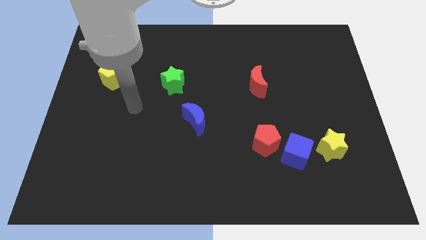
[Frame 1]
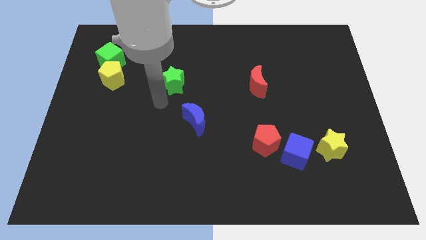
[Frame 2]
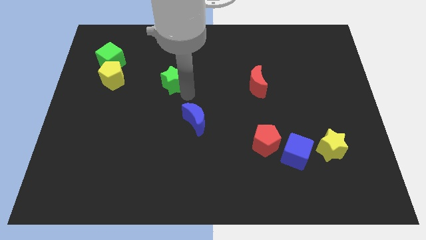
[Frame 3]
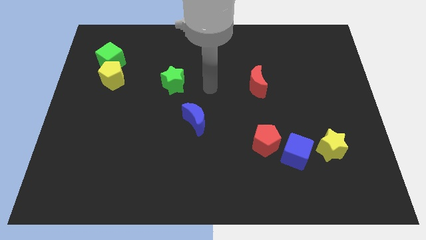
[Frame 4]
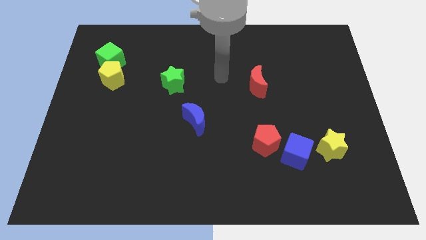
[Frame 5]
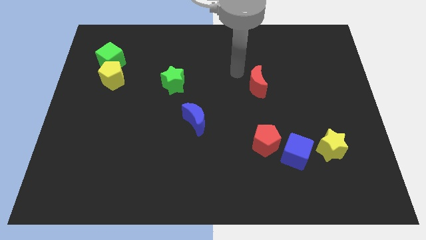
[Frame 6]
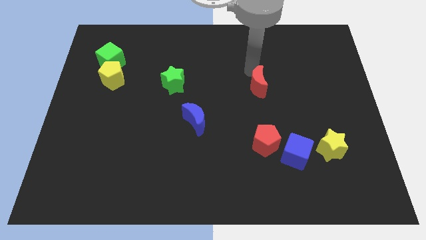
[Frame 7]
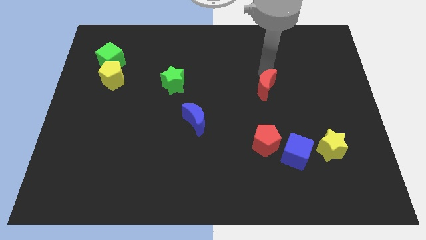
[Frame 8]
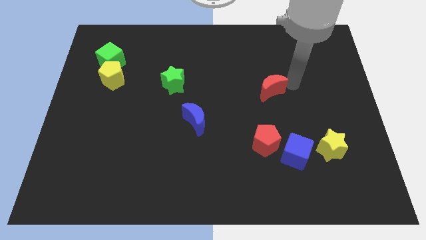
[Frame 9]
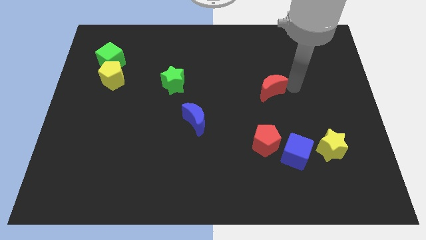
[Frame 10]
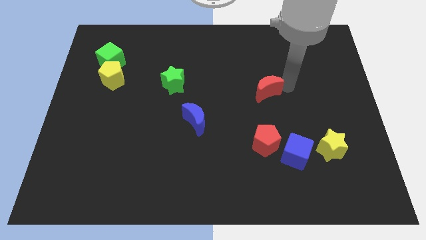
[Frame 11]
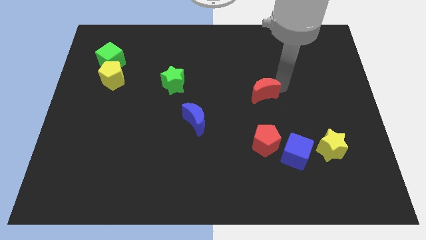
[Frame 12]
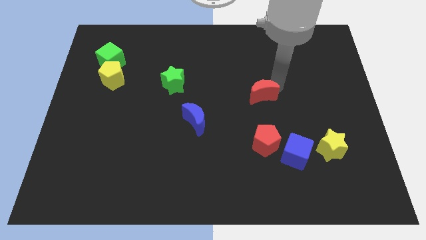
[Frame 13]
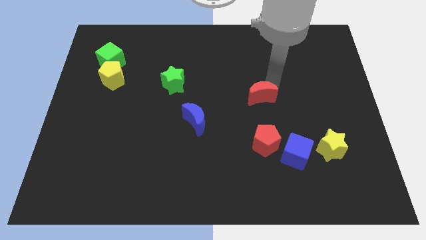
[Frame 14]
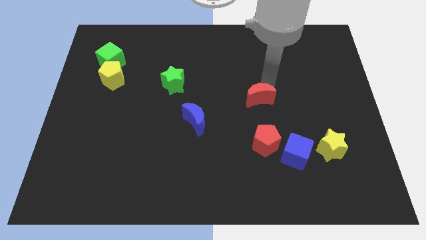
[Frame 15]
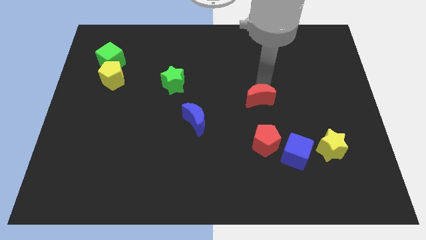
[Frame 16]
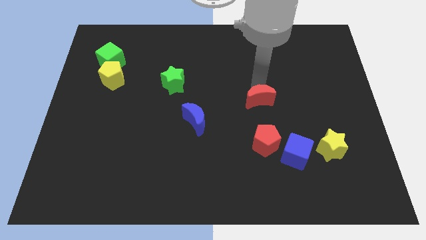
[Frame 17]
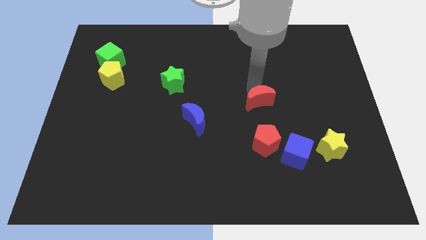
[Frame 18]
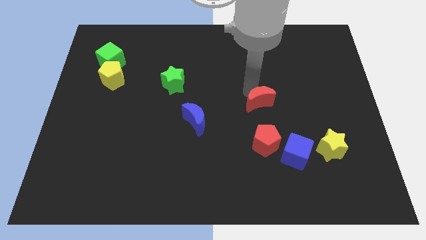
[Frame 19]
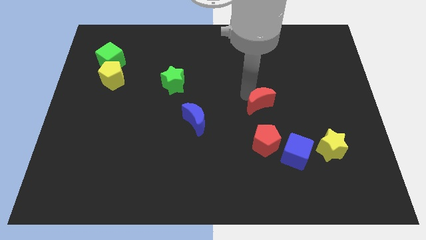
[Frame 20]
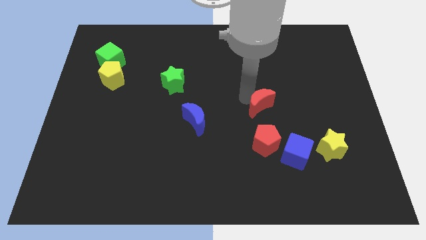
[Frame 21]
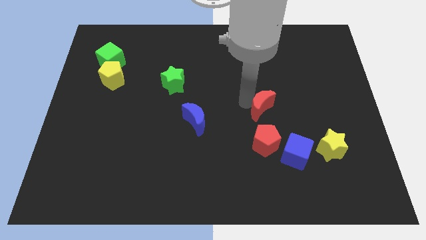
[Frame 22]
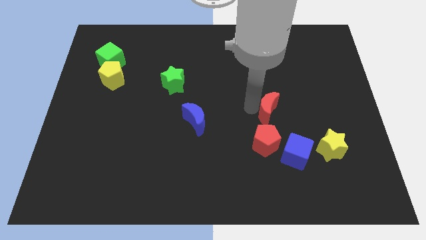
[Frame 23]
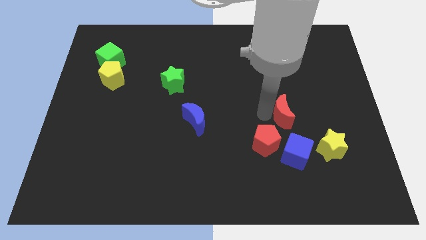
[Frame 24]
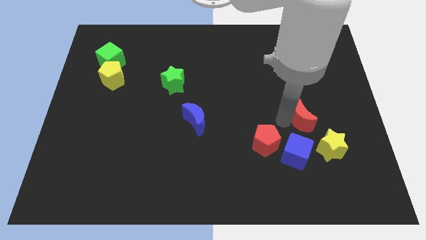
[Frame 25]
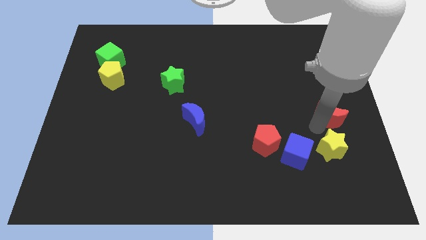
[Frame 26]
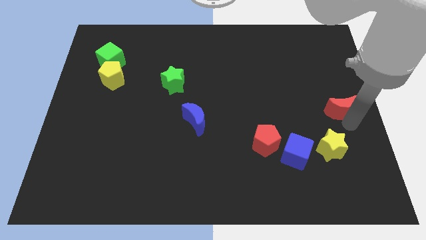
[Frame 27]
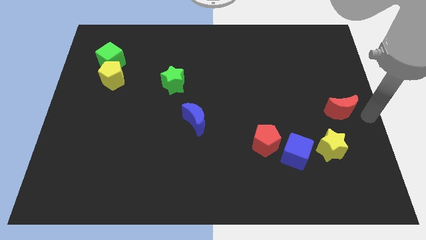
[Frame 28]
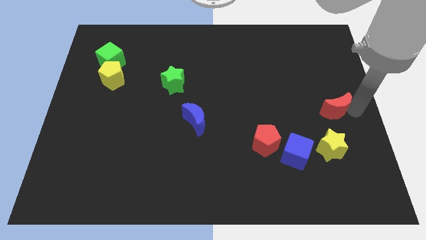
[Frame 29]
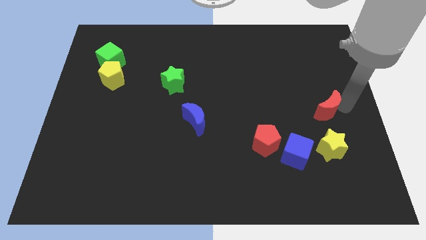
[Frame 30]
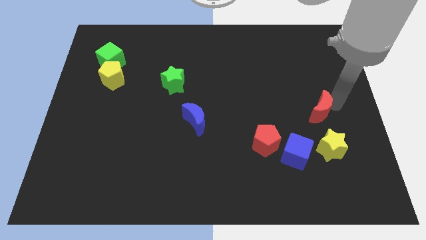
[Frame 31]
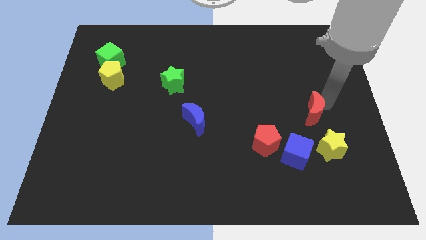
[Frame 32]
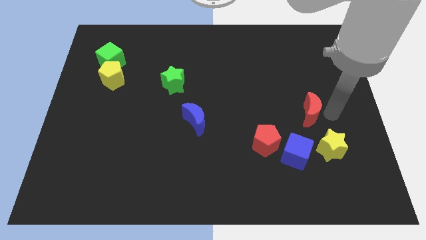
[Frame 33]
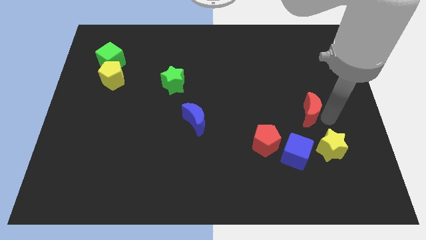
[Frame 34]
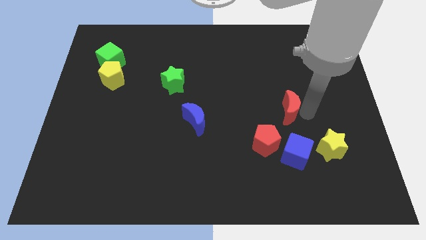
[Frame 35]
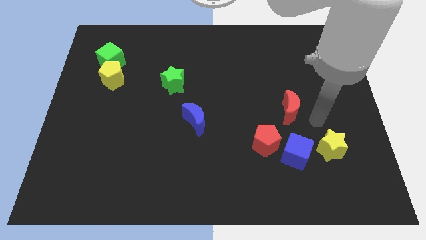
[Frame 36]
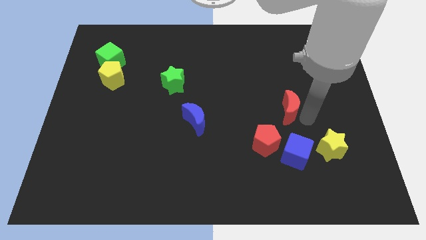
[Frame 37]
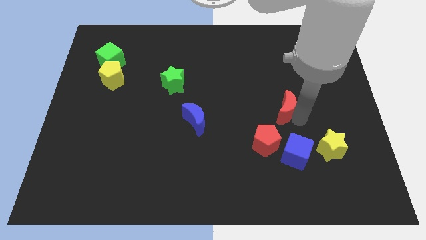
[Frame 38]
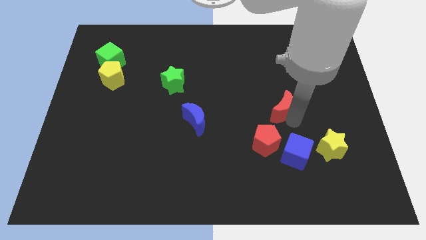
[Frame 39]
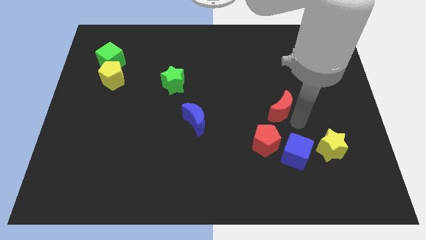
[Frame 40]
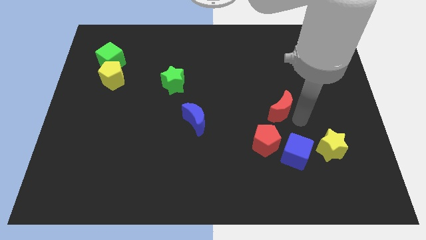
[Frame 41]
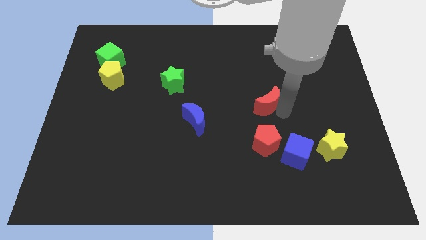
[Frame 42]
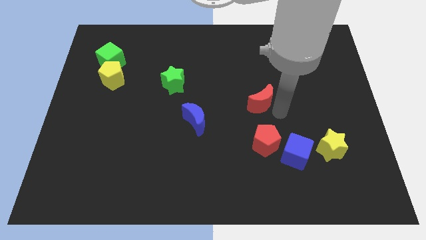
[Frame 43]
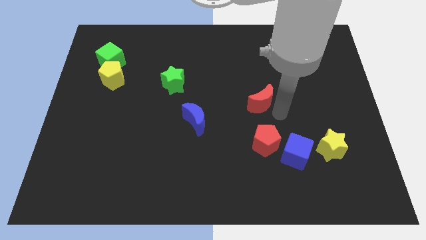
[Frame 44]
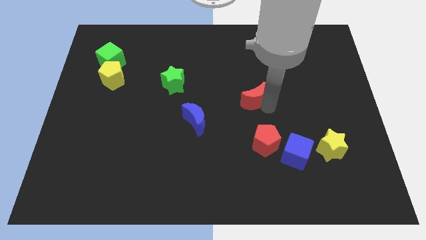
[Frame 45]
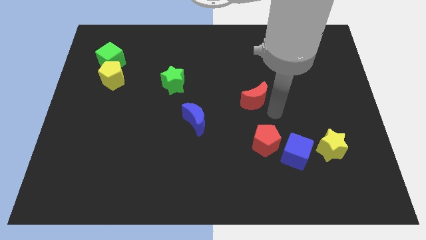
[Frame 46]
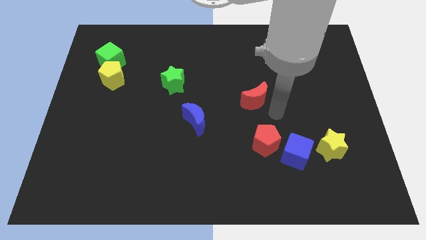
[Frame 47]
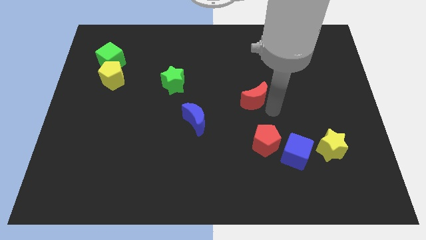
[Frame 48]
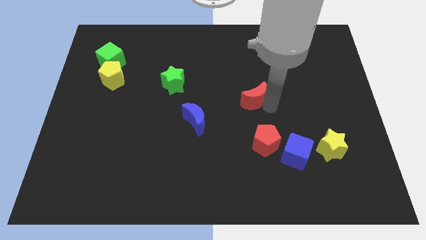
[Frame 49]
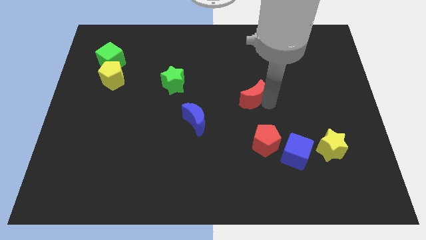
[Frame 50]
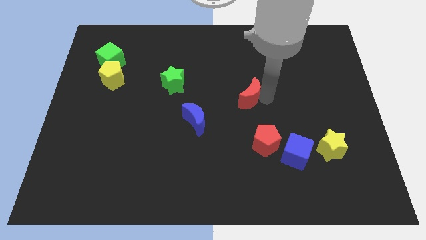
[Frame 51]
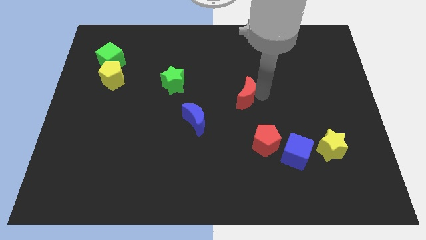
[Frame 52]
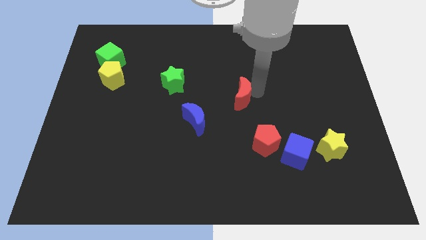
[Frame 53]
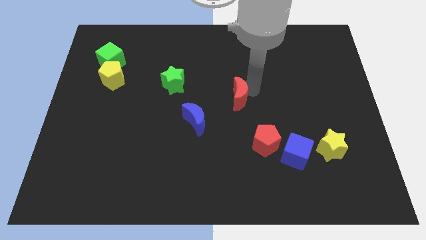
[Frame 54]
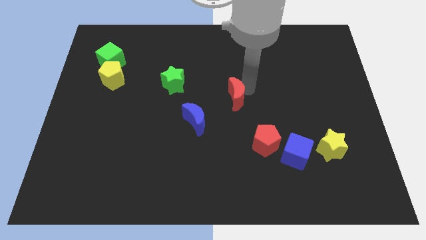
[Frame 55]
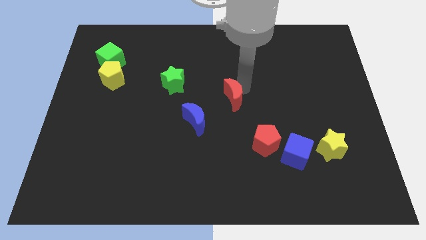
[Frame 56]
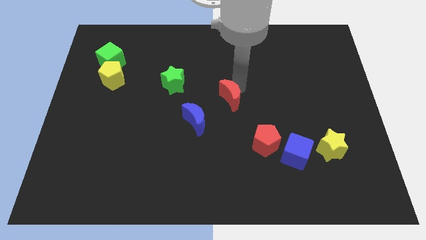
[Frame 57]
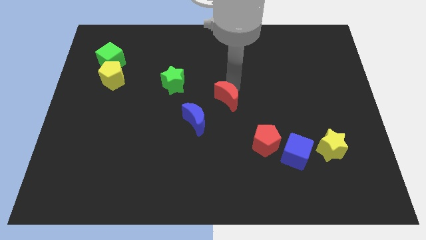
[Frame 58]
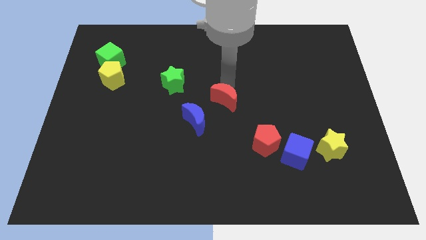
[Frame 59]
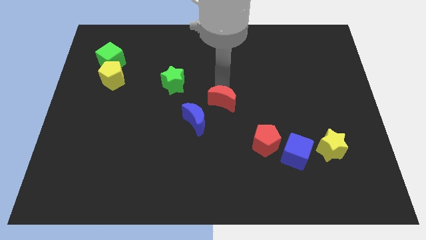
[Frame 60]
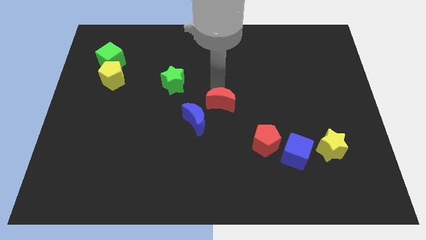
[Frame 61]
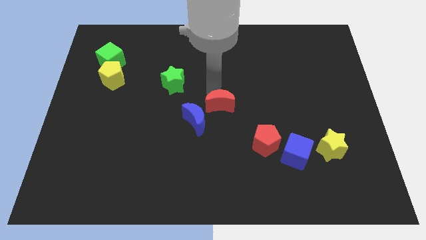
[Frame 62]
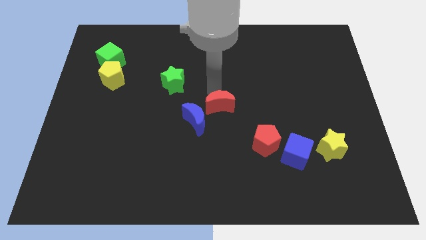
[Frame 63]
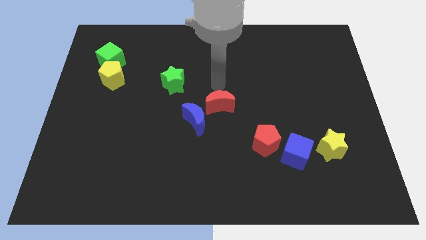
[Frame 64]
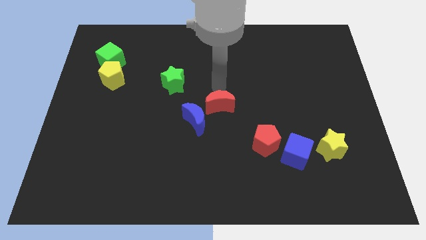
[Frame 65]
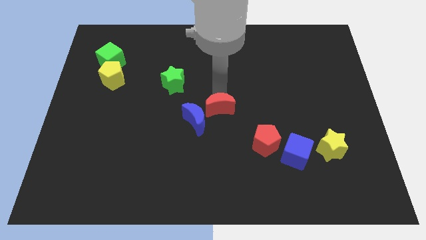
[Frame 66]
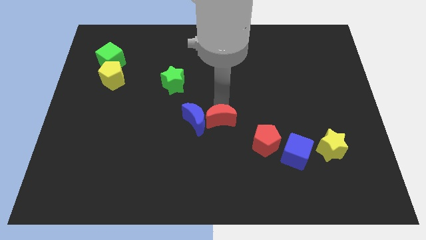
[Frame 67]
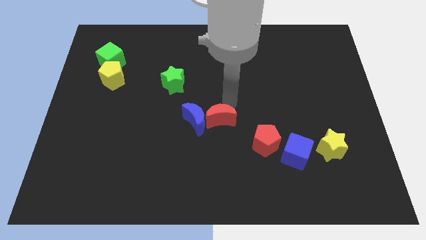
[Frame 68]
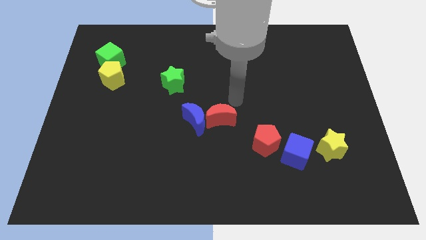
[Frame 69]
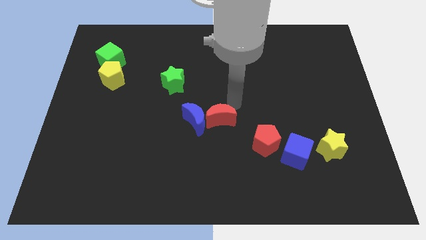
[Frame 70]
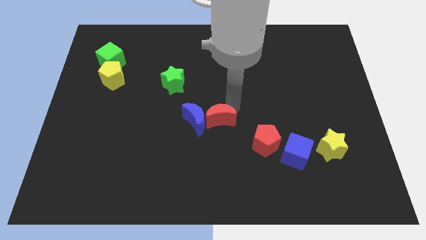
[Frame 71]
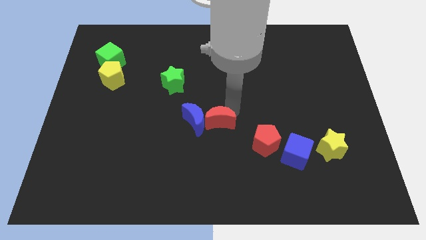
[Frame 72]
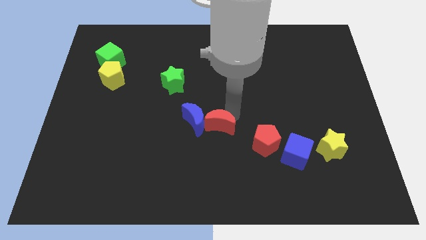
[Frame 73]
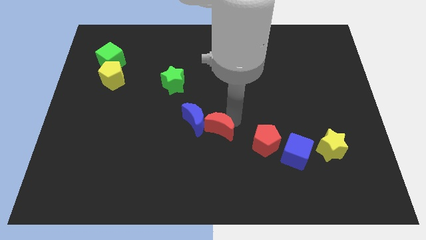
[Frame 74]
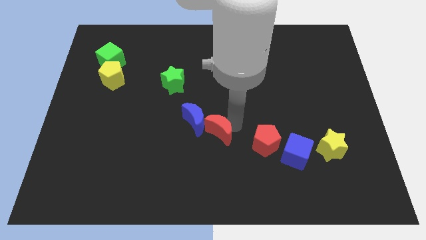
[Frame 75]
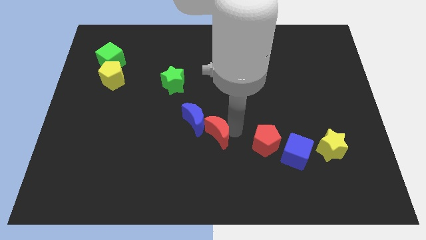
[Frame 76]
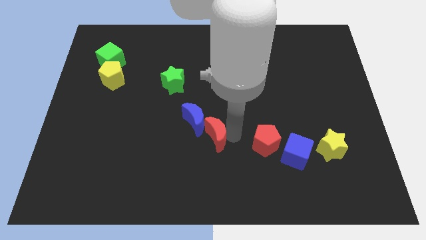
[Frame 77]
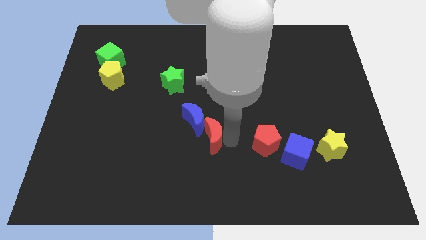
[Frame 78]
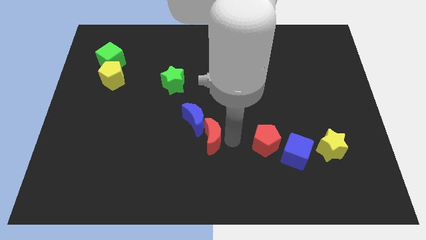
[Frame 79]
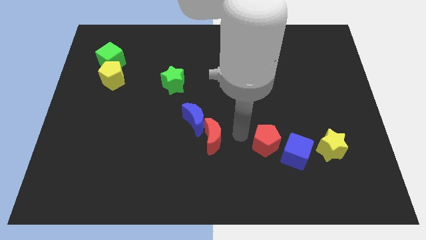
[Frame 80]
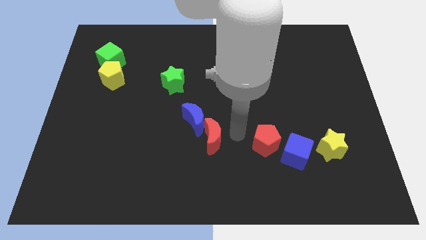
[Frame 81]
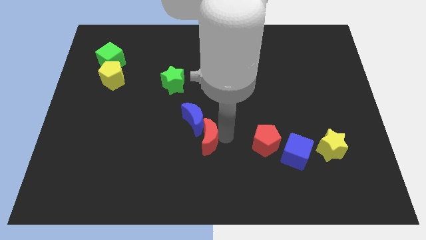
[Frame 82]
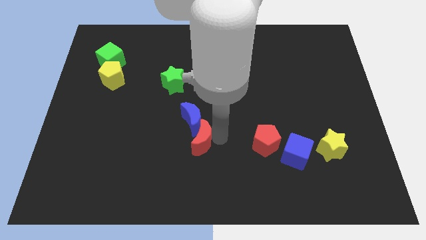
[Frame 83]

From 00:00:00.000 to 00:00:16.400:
slide the red moon diagonally downwards and to the left
